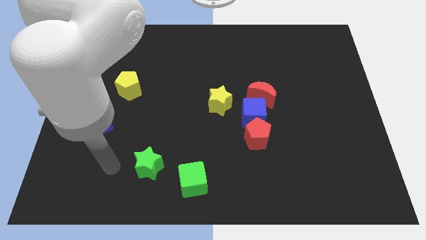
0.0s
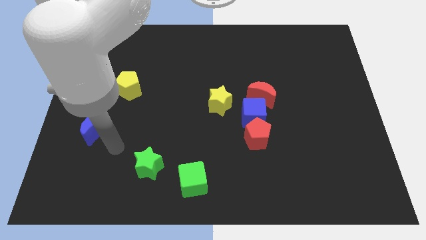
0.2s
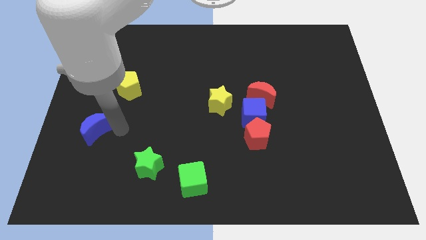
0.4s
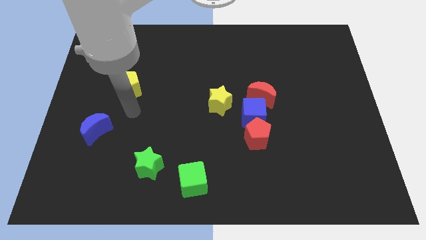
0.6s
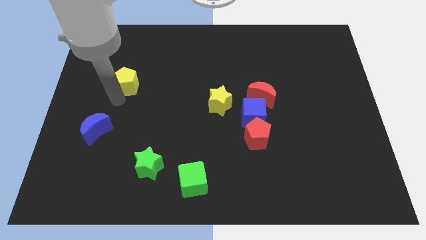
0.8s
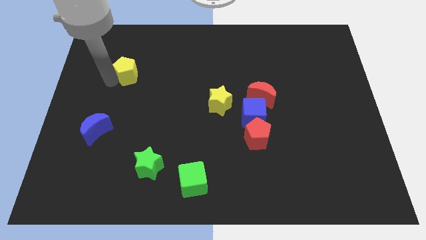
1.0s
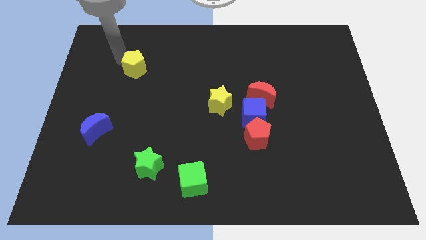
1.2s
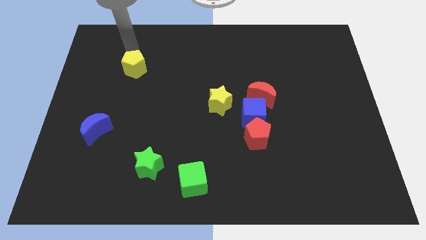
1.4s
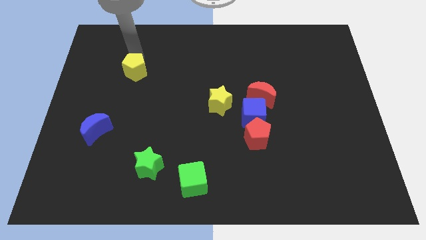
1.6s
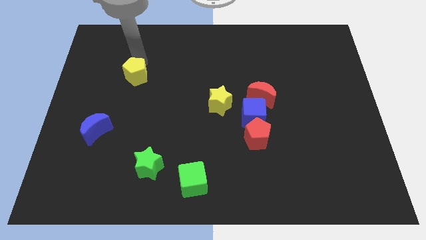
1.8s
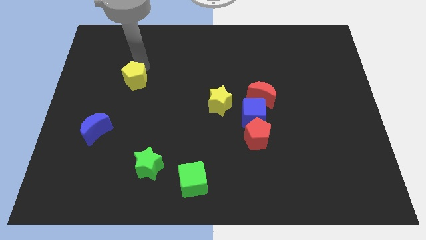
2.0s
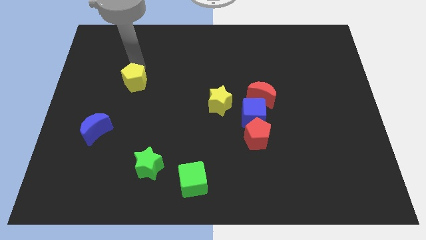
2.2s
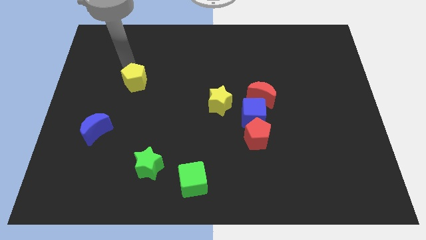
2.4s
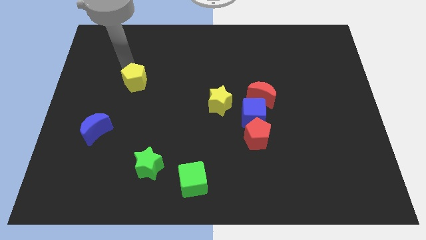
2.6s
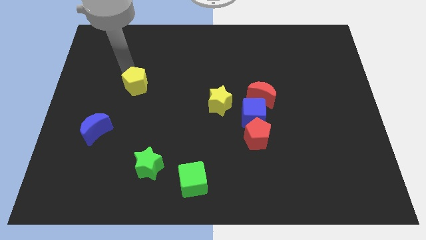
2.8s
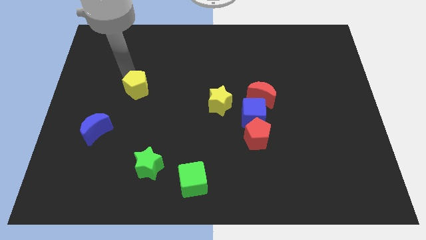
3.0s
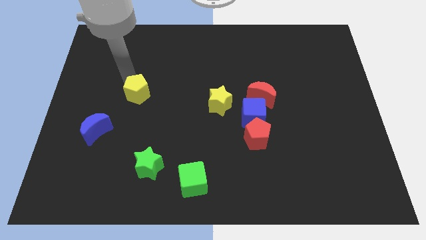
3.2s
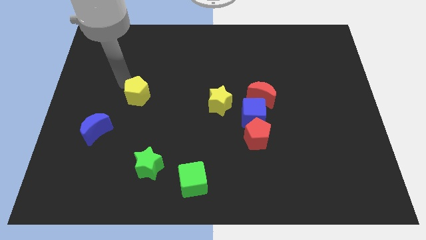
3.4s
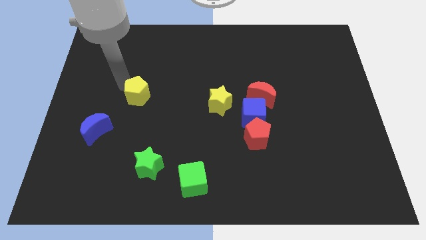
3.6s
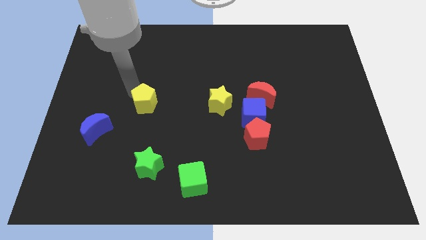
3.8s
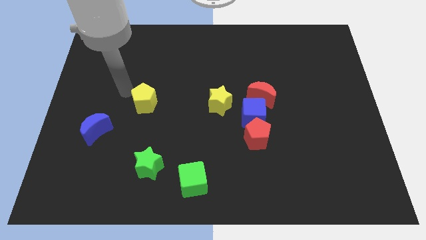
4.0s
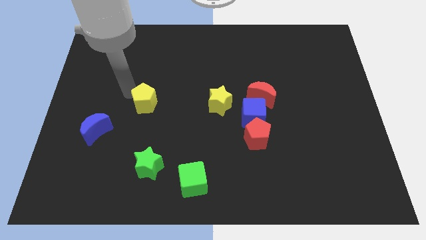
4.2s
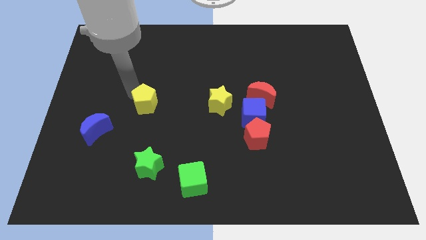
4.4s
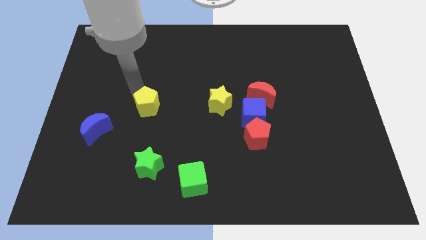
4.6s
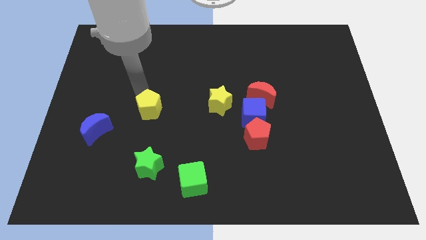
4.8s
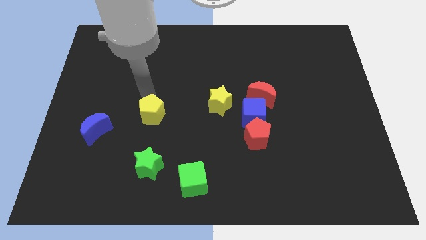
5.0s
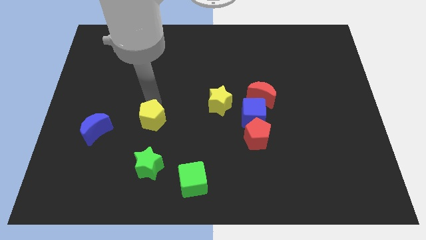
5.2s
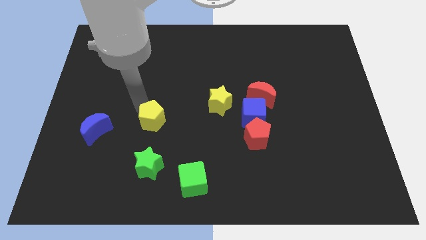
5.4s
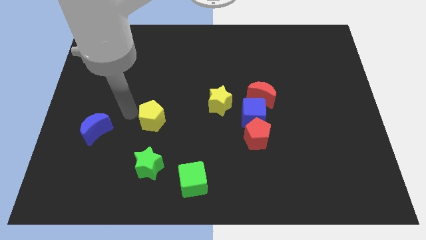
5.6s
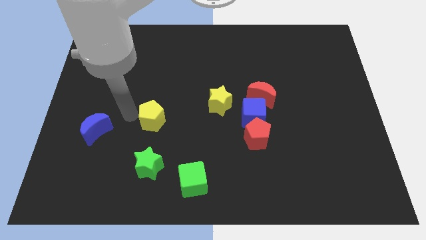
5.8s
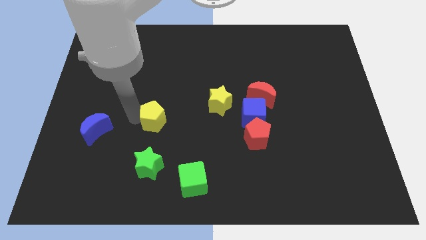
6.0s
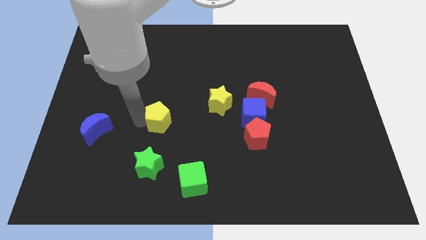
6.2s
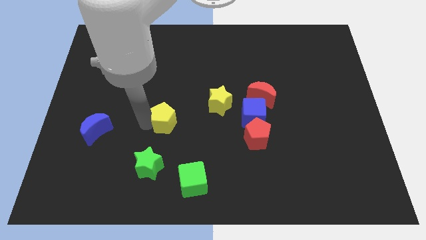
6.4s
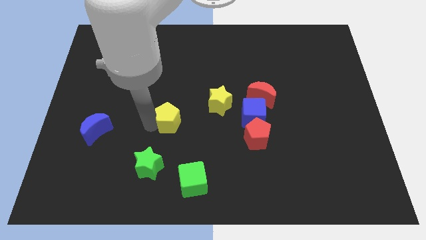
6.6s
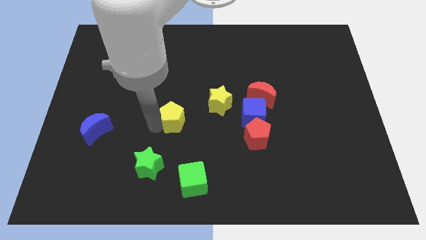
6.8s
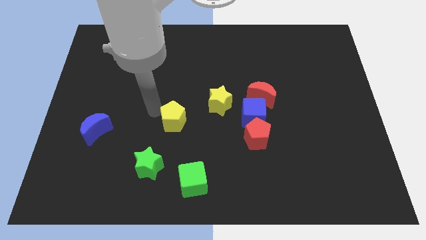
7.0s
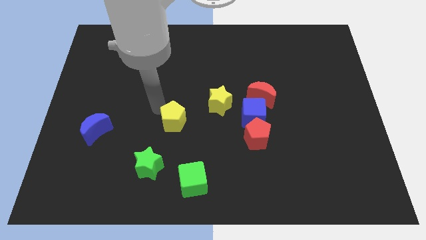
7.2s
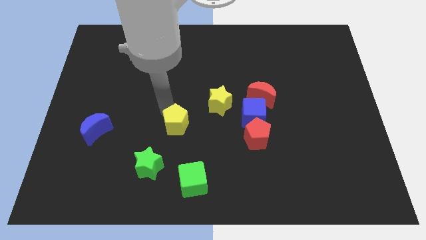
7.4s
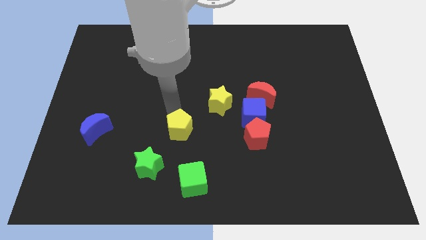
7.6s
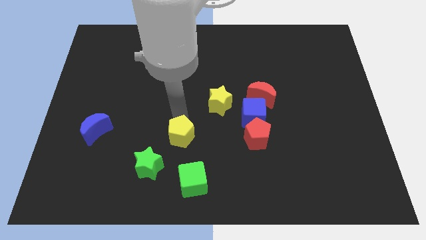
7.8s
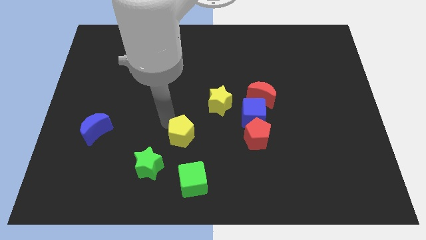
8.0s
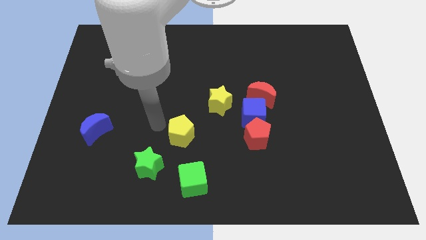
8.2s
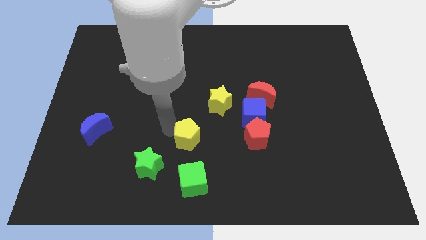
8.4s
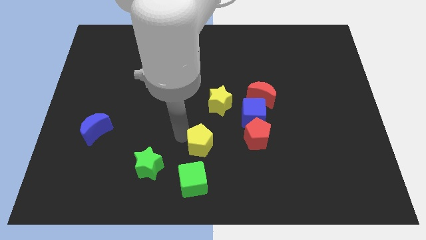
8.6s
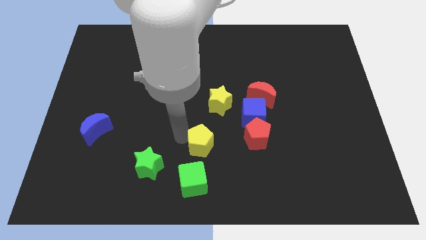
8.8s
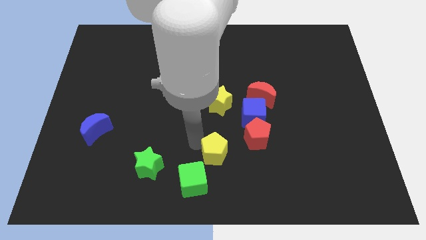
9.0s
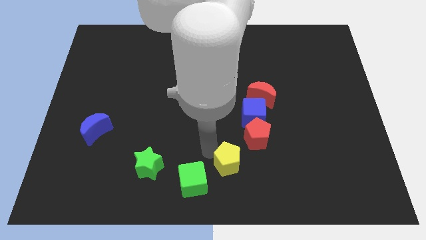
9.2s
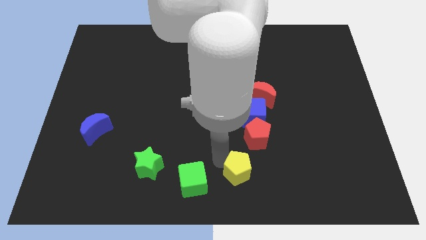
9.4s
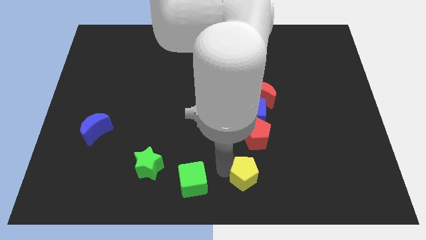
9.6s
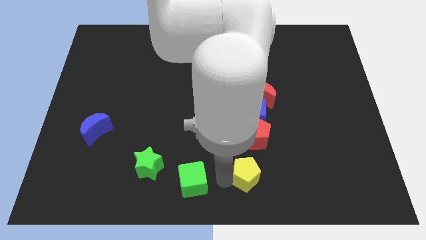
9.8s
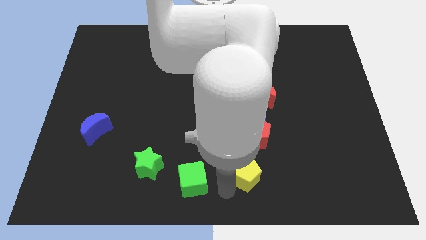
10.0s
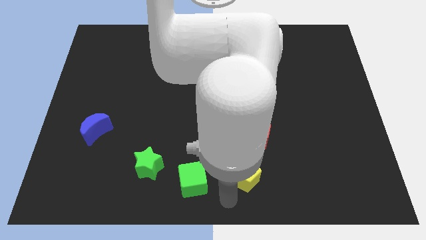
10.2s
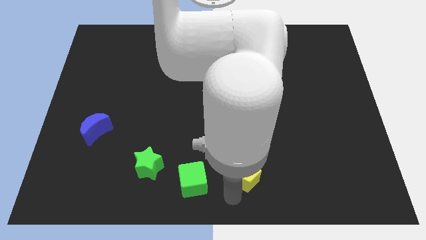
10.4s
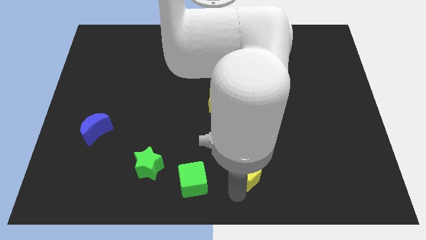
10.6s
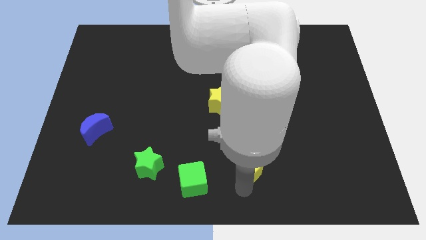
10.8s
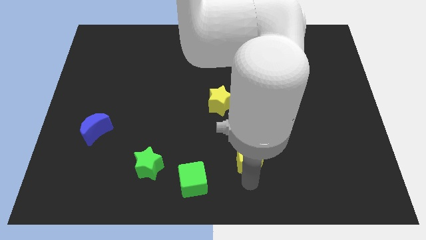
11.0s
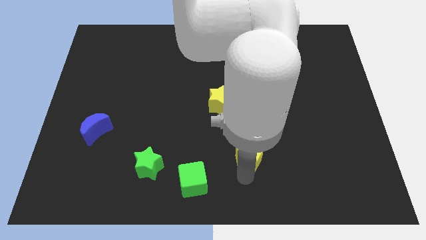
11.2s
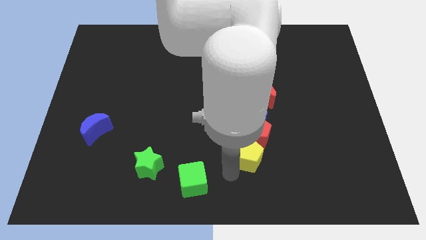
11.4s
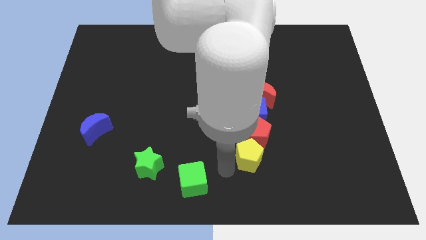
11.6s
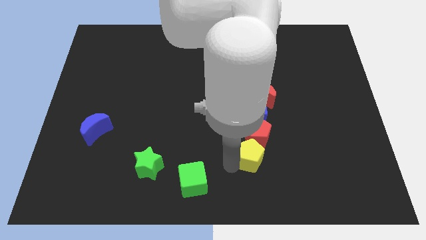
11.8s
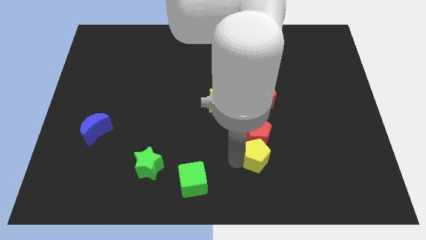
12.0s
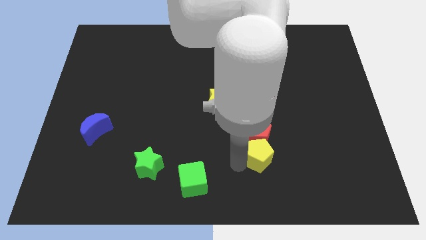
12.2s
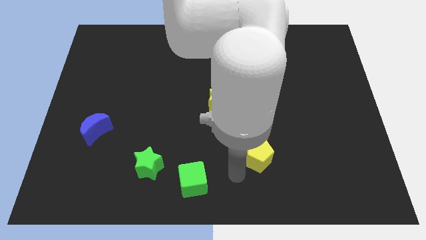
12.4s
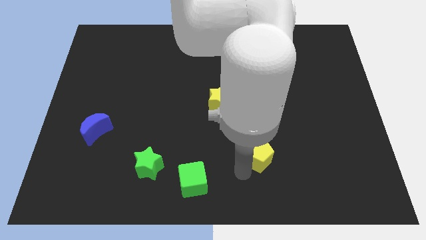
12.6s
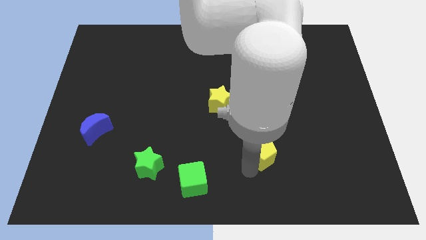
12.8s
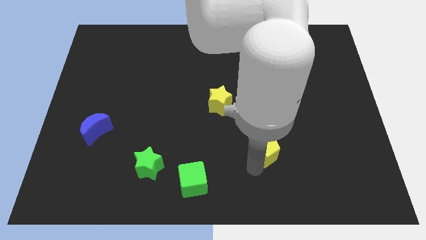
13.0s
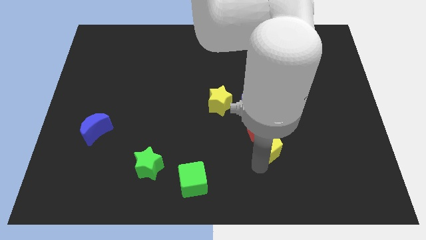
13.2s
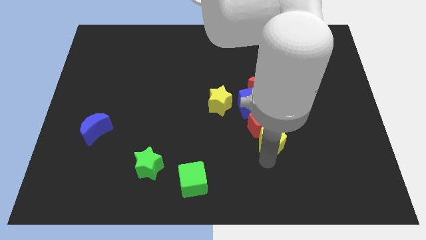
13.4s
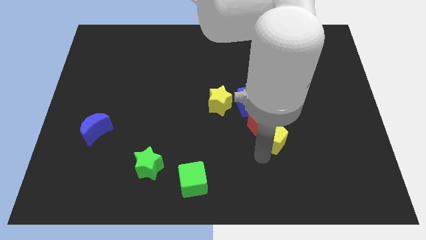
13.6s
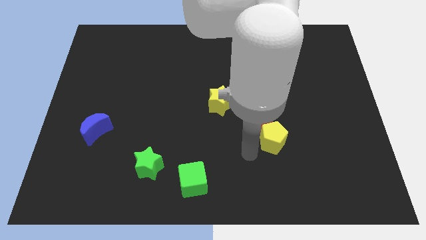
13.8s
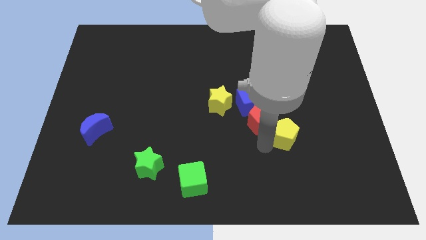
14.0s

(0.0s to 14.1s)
put the yellow pentagon to the right side of the red pentagon

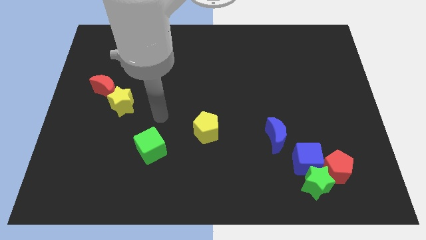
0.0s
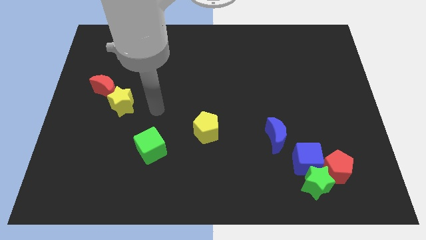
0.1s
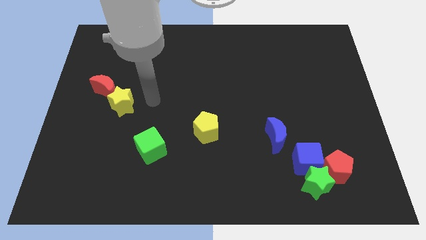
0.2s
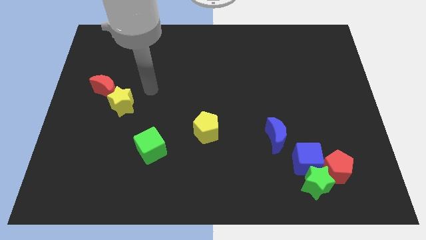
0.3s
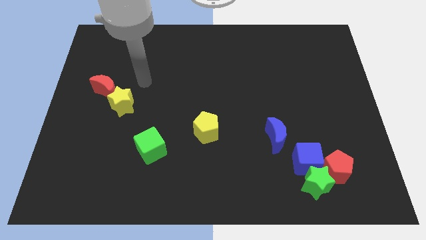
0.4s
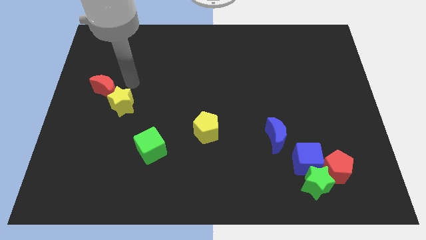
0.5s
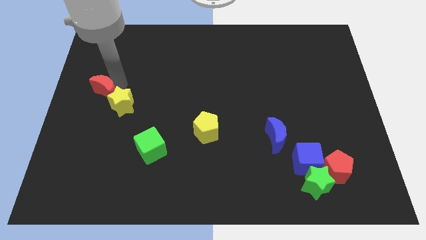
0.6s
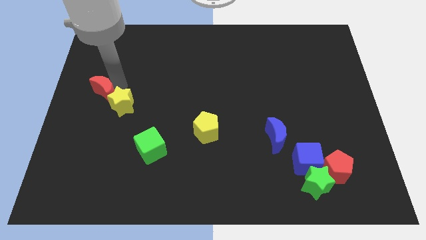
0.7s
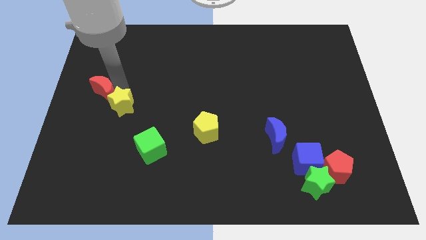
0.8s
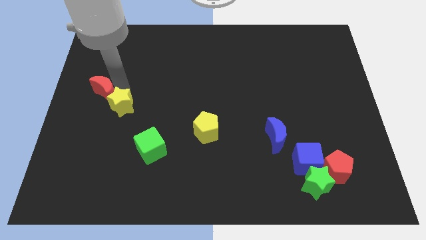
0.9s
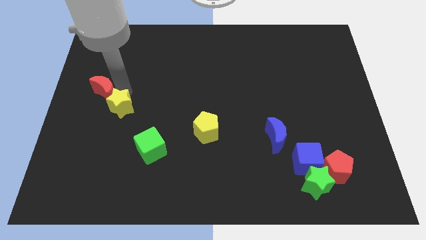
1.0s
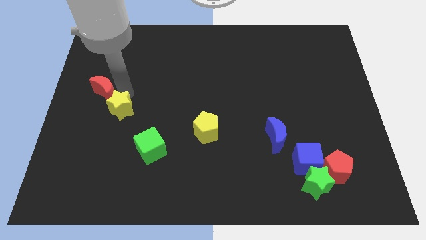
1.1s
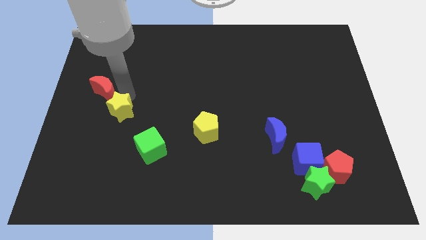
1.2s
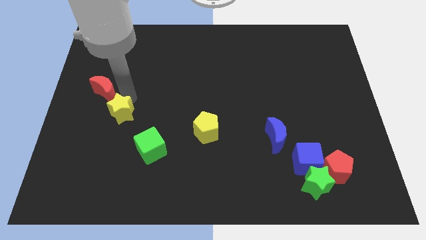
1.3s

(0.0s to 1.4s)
put the yellow star to the top left side of the green cube
